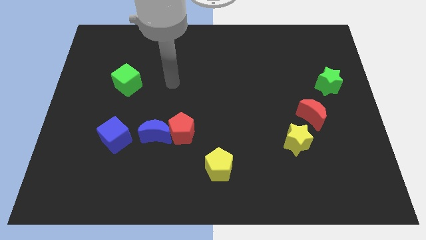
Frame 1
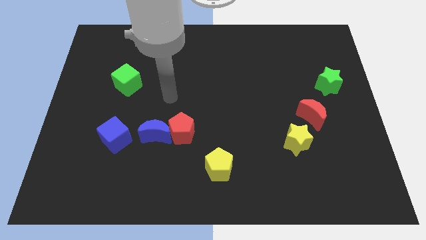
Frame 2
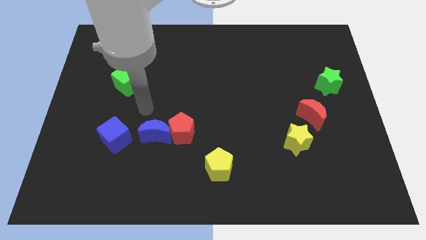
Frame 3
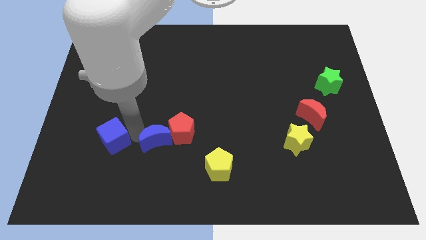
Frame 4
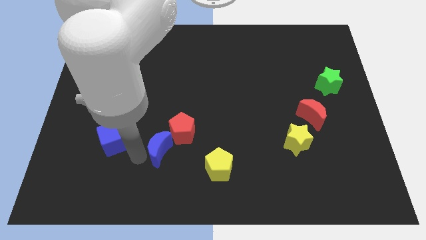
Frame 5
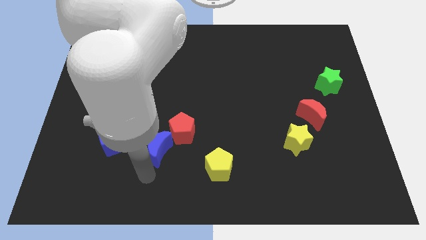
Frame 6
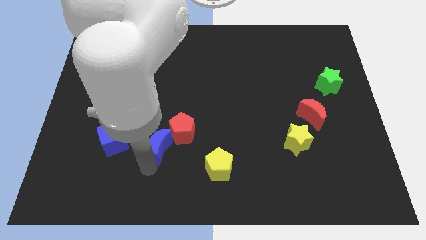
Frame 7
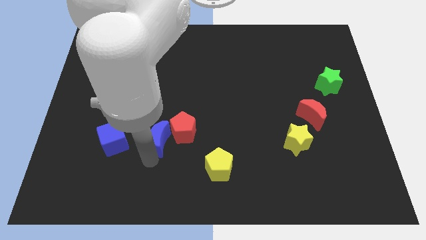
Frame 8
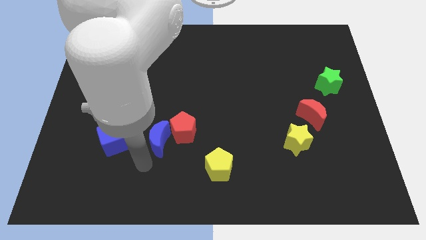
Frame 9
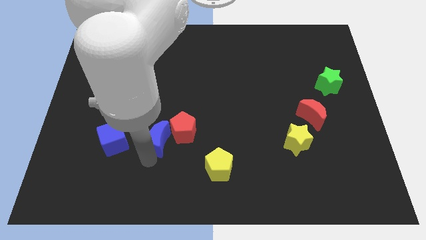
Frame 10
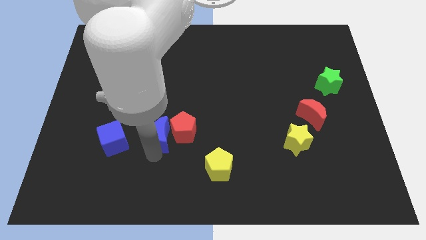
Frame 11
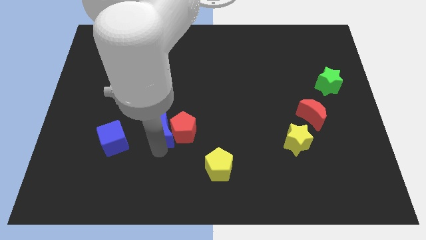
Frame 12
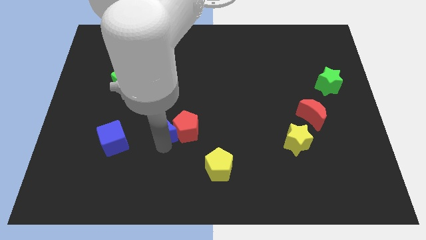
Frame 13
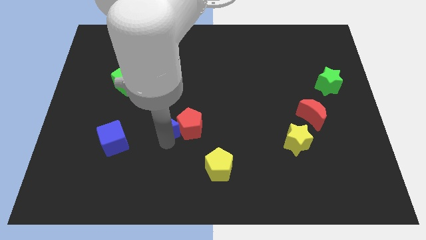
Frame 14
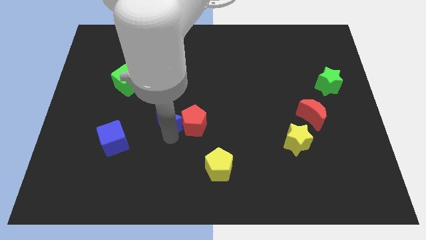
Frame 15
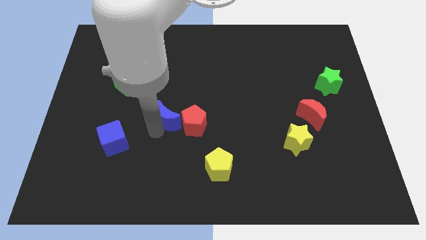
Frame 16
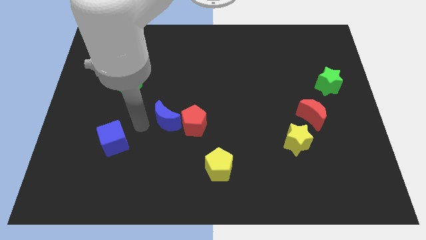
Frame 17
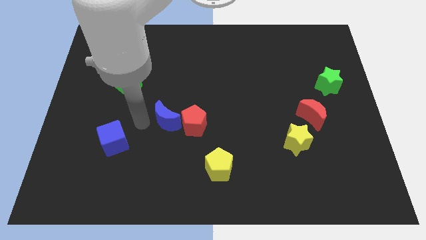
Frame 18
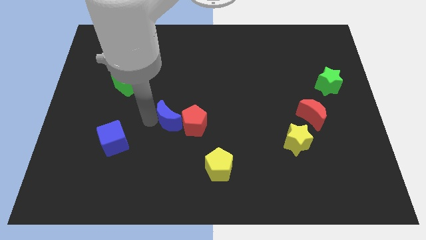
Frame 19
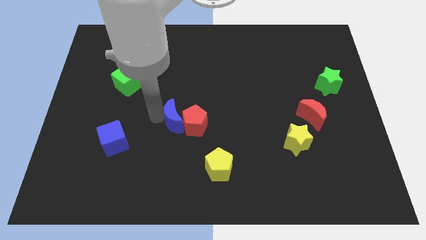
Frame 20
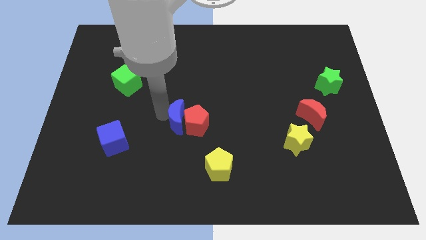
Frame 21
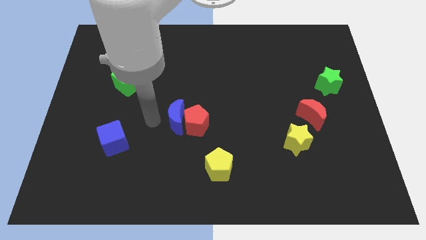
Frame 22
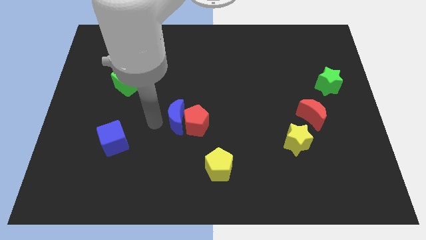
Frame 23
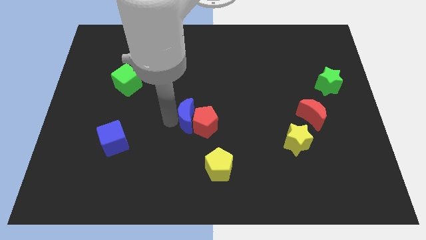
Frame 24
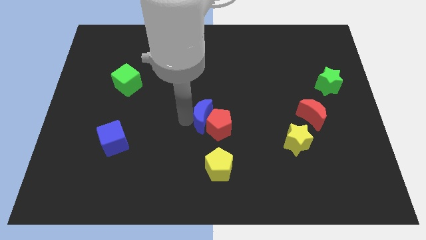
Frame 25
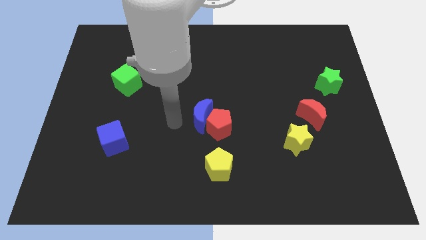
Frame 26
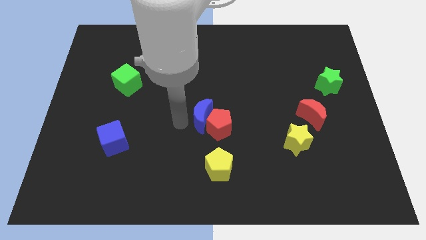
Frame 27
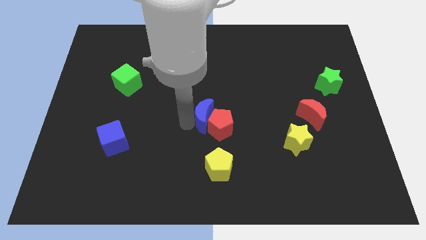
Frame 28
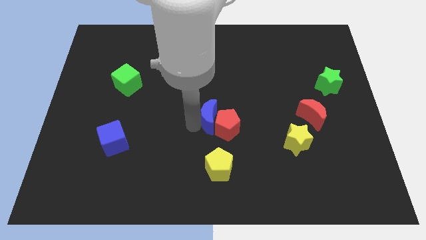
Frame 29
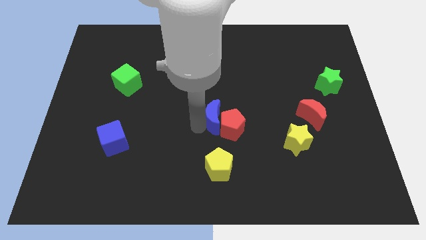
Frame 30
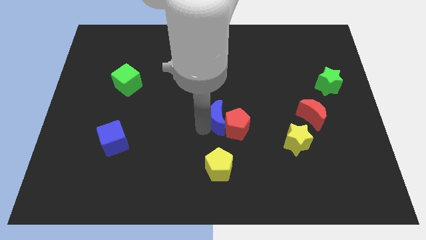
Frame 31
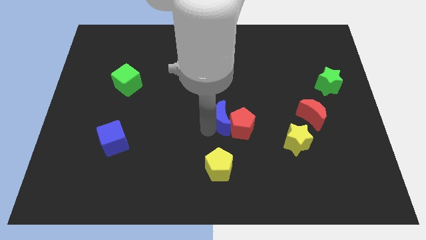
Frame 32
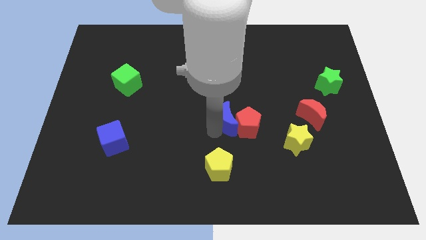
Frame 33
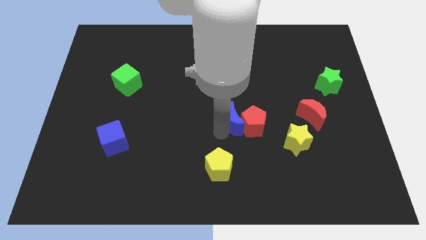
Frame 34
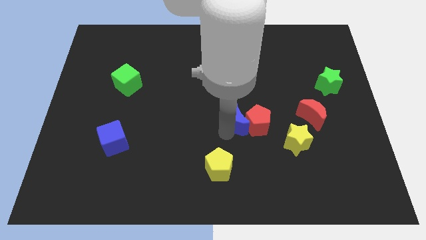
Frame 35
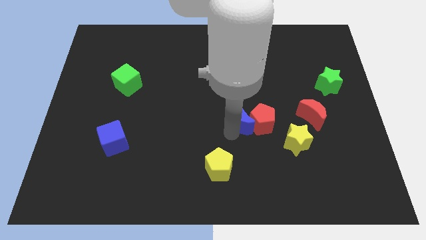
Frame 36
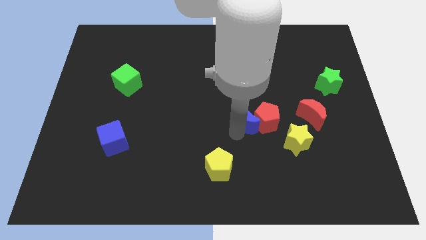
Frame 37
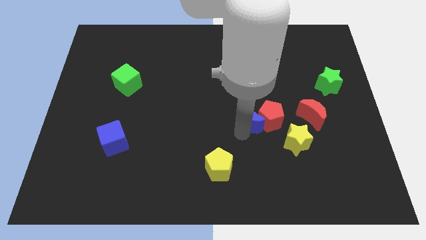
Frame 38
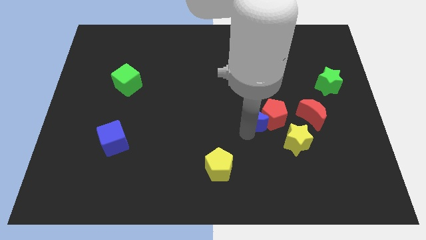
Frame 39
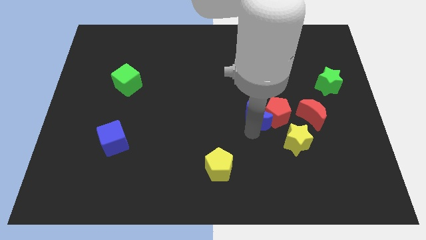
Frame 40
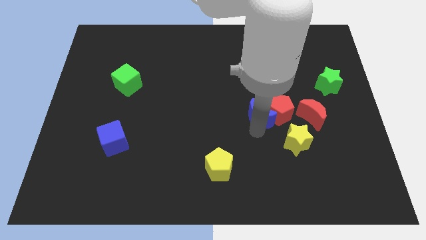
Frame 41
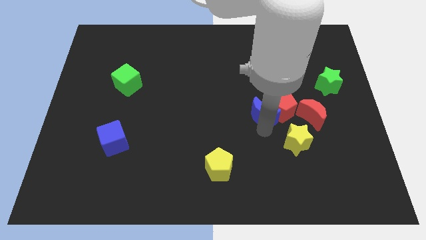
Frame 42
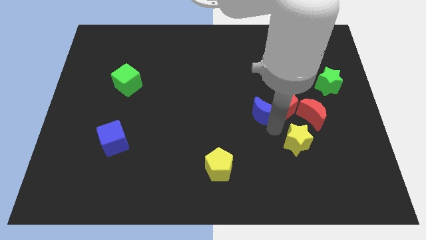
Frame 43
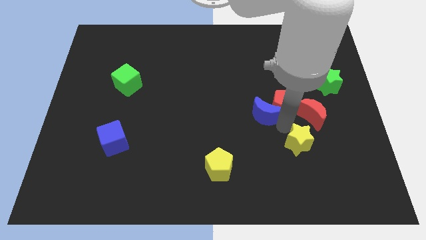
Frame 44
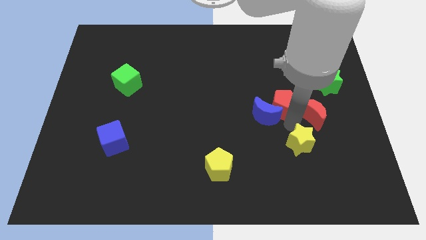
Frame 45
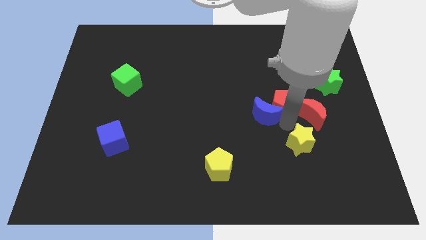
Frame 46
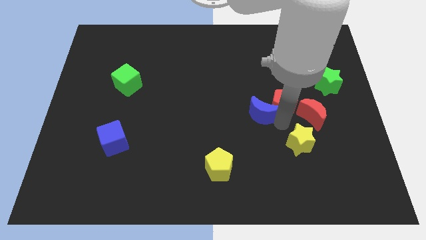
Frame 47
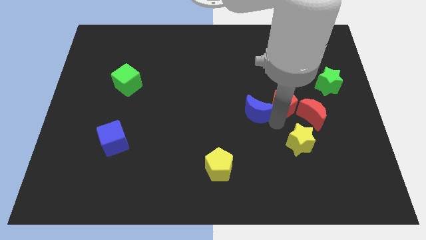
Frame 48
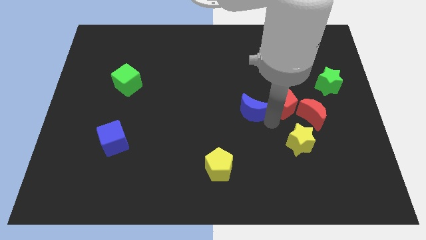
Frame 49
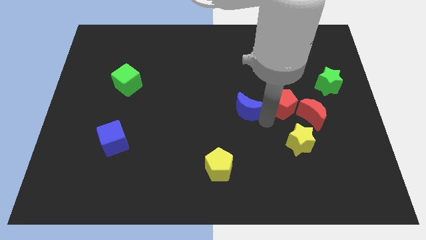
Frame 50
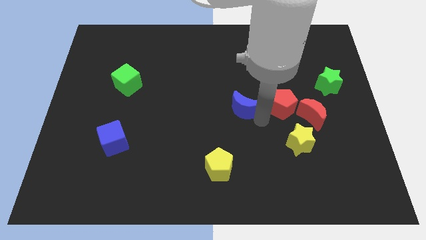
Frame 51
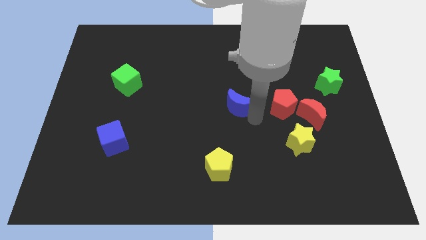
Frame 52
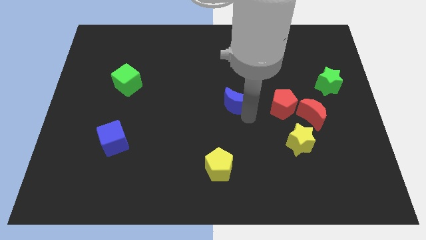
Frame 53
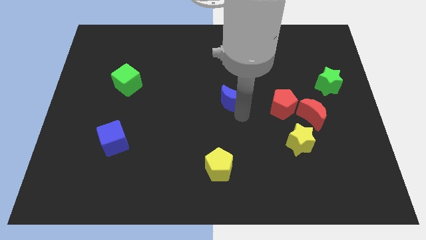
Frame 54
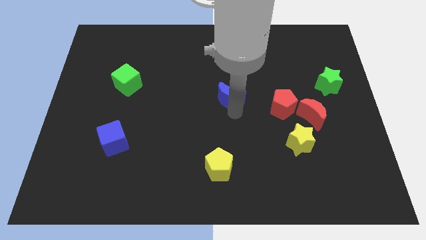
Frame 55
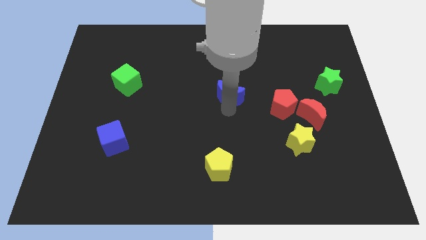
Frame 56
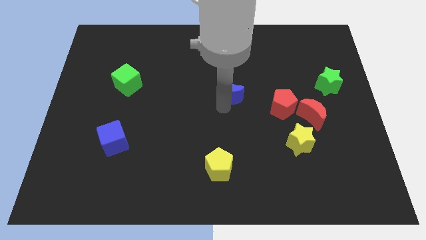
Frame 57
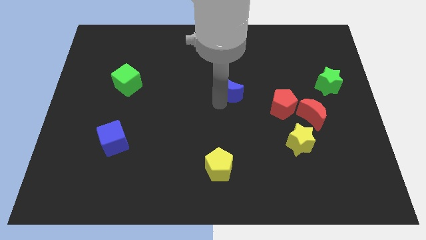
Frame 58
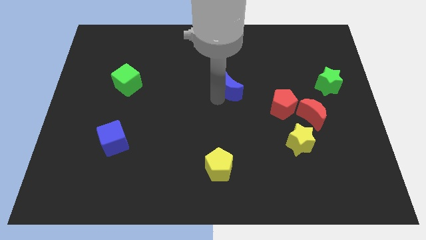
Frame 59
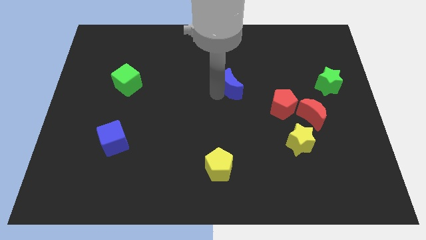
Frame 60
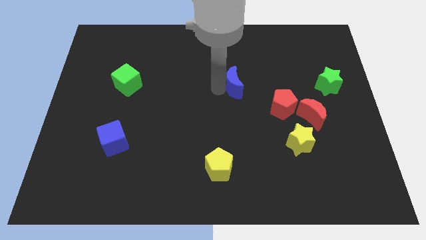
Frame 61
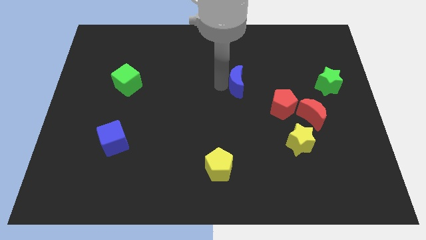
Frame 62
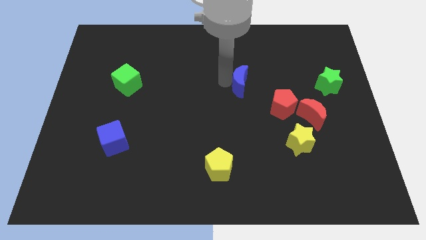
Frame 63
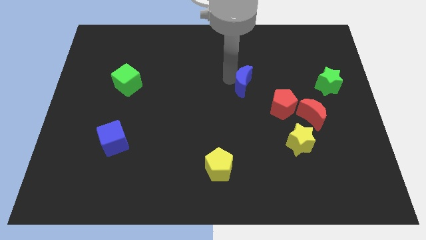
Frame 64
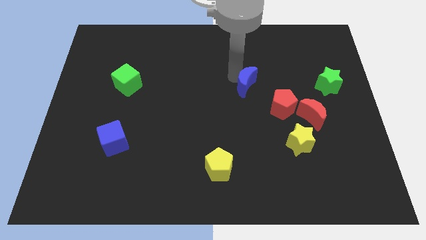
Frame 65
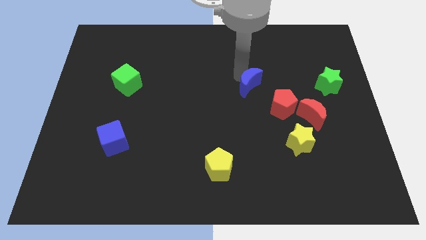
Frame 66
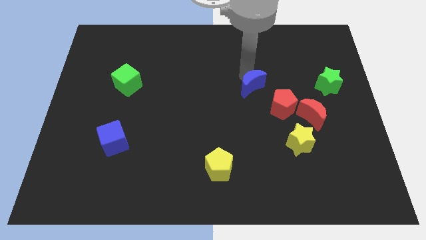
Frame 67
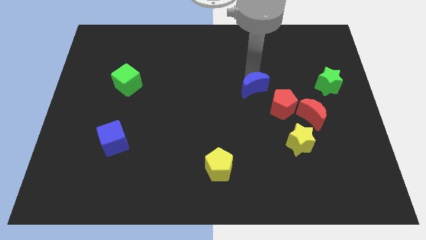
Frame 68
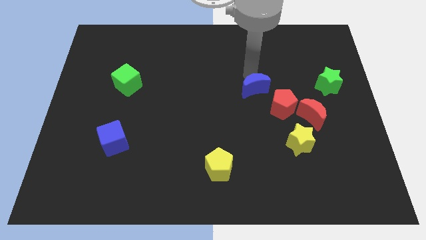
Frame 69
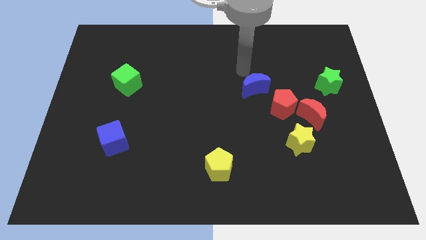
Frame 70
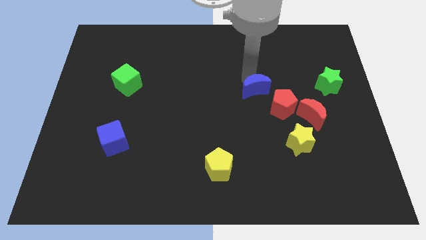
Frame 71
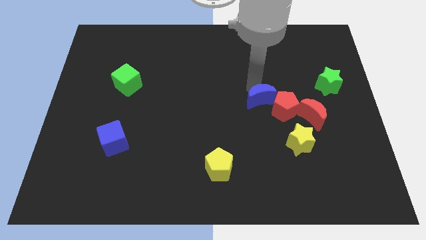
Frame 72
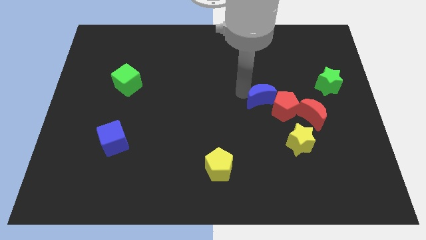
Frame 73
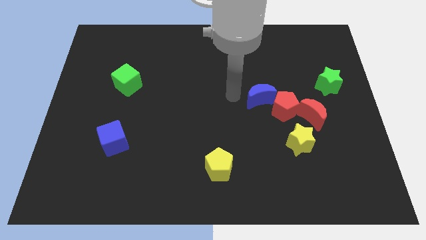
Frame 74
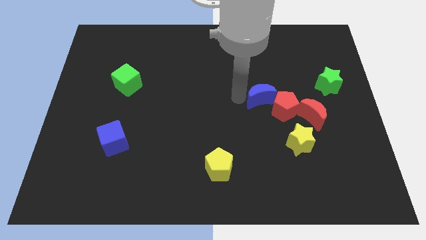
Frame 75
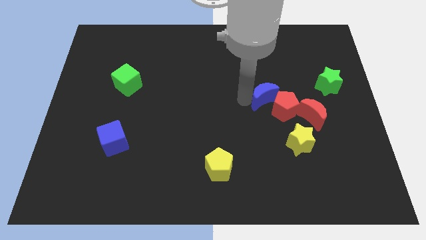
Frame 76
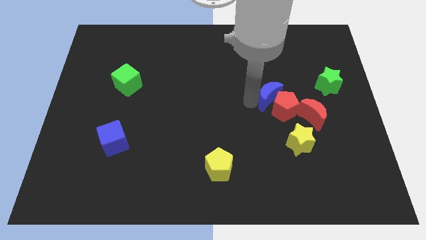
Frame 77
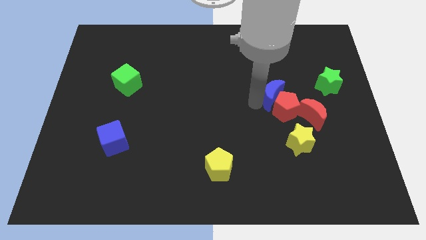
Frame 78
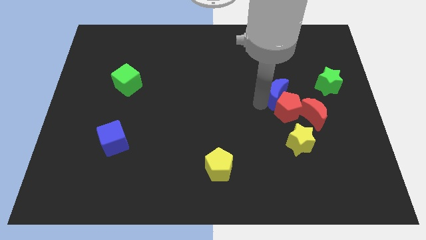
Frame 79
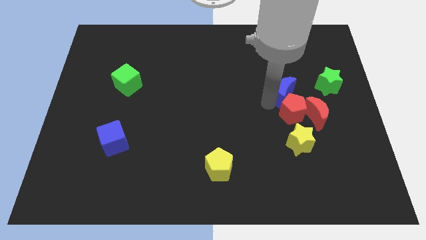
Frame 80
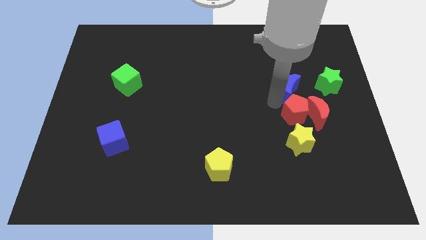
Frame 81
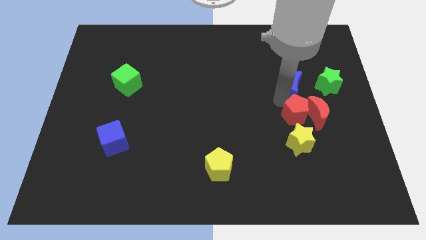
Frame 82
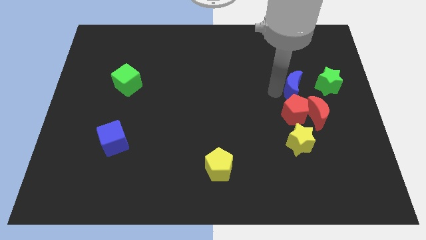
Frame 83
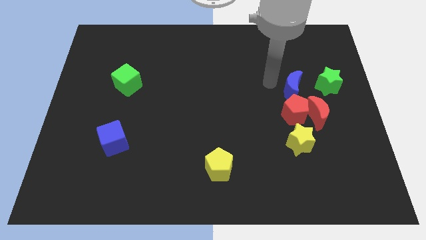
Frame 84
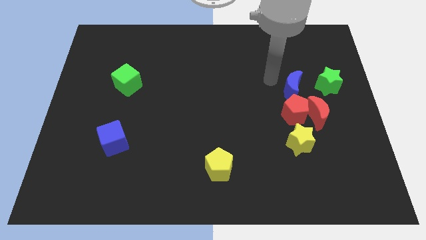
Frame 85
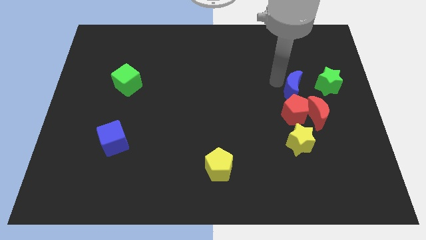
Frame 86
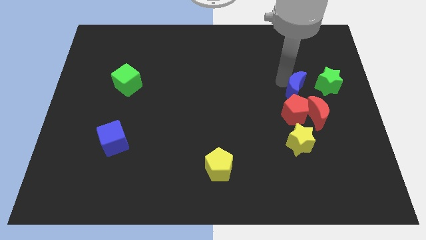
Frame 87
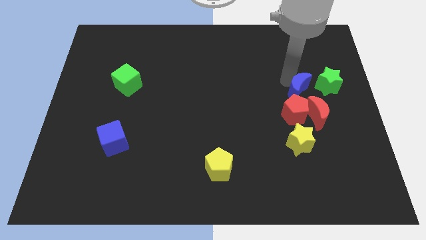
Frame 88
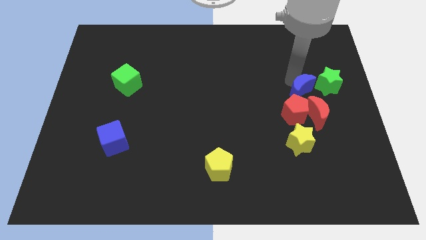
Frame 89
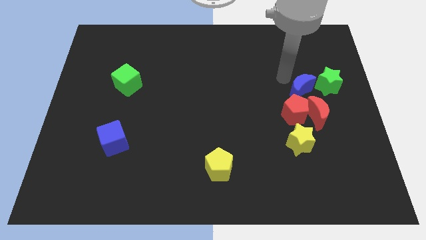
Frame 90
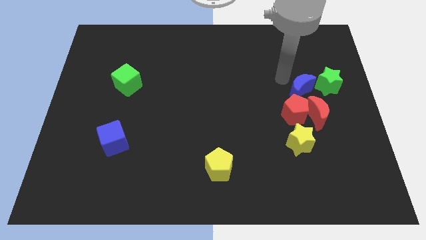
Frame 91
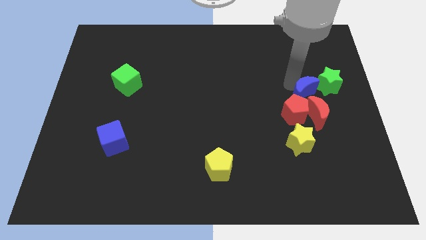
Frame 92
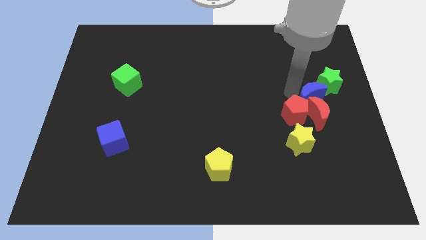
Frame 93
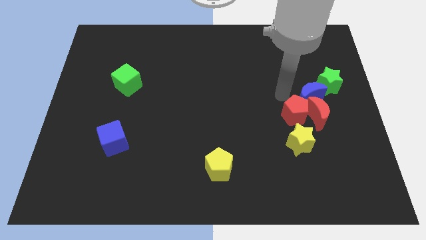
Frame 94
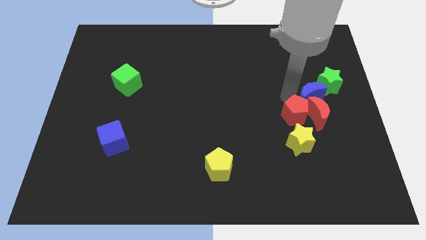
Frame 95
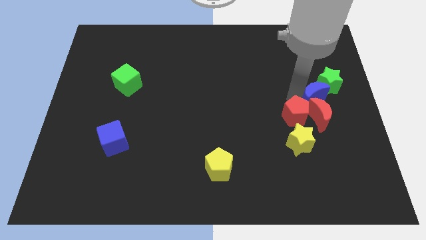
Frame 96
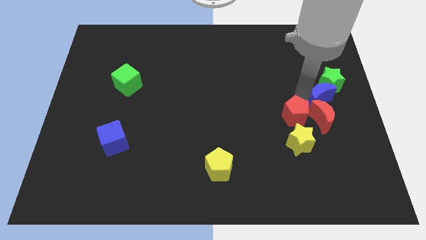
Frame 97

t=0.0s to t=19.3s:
slide the blue moon to the right side of the board
